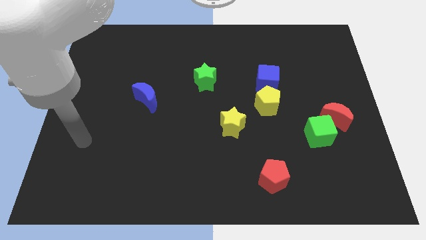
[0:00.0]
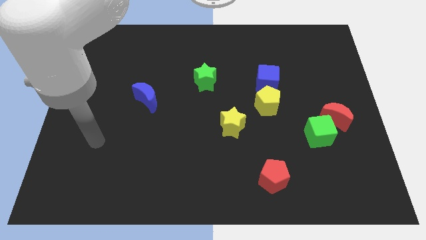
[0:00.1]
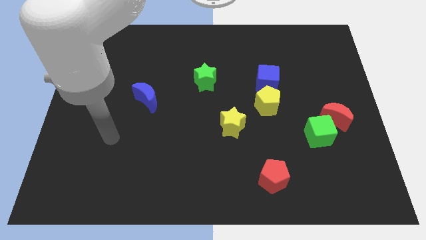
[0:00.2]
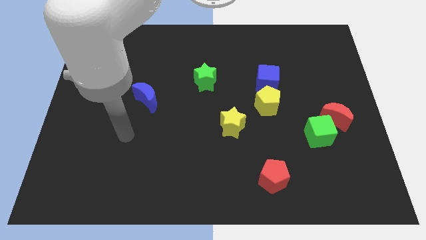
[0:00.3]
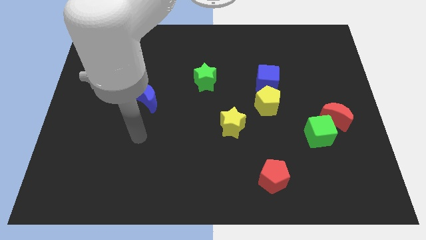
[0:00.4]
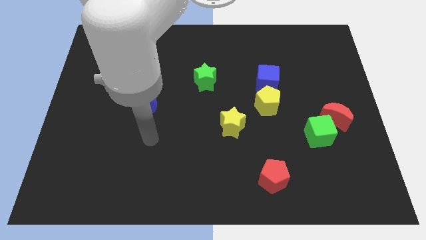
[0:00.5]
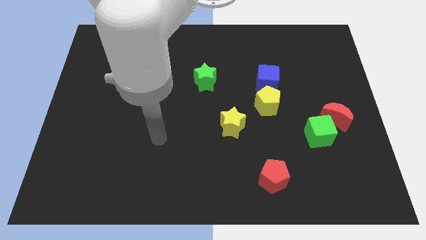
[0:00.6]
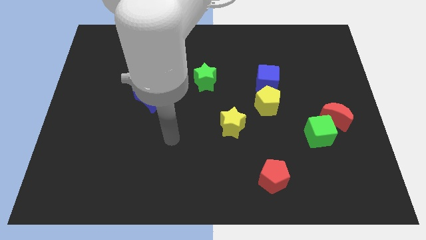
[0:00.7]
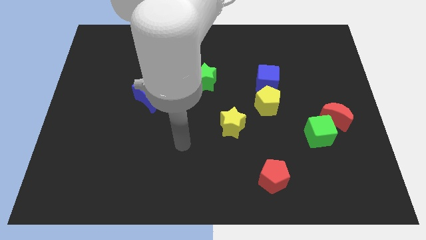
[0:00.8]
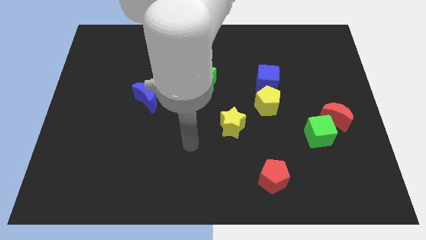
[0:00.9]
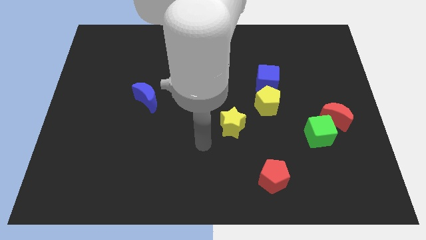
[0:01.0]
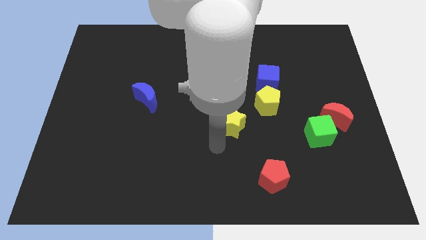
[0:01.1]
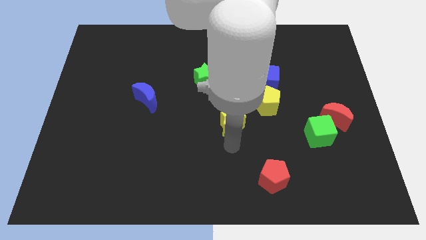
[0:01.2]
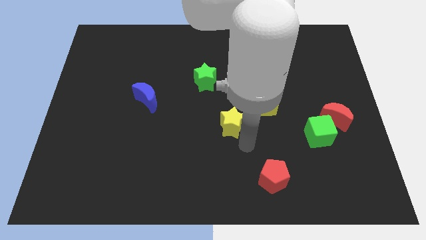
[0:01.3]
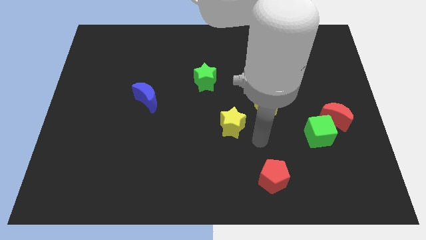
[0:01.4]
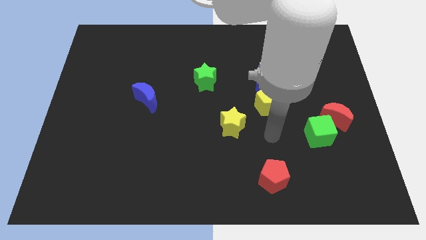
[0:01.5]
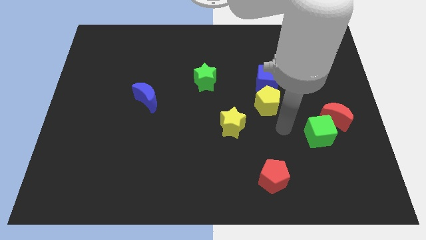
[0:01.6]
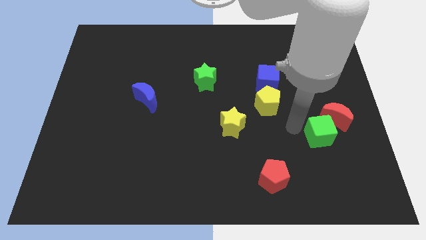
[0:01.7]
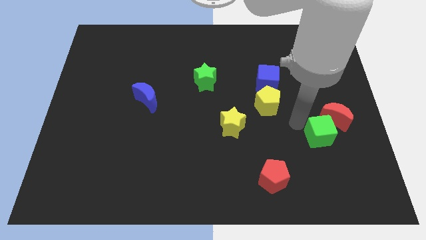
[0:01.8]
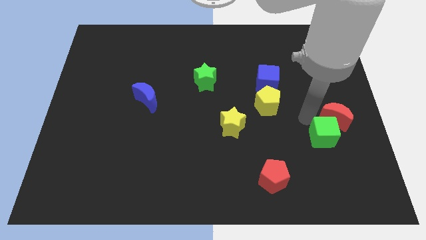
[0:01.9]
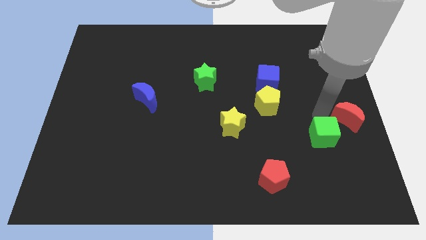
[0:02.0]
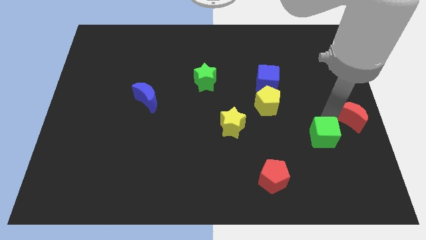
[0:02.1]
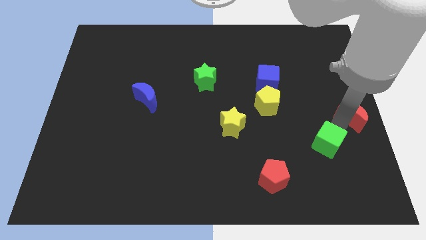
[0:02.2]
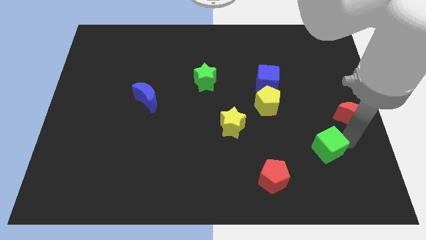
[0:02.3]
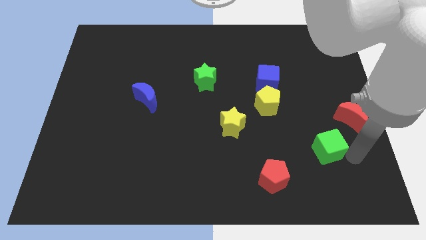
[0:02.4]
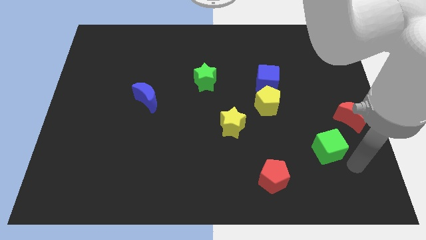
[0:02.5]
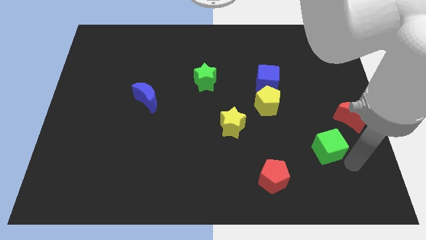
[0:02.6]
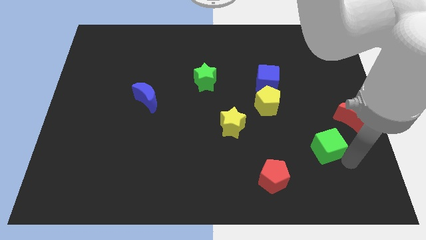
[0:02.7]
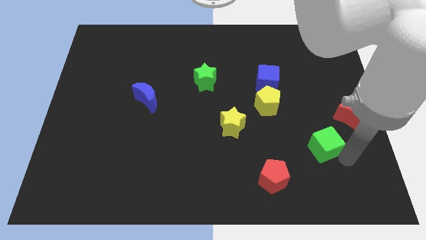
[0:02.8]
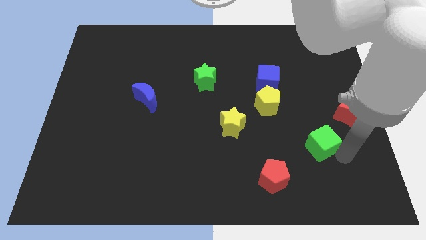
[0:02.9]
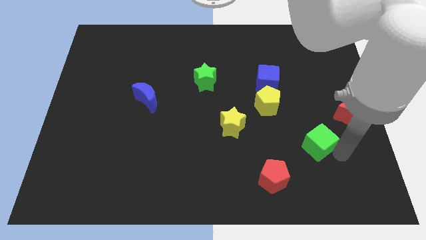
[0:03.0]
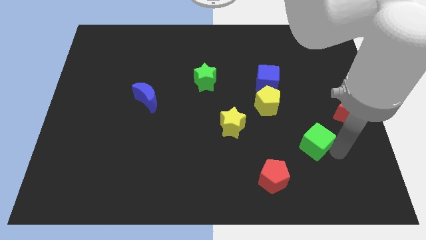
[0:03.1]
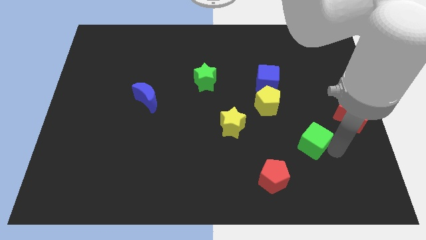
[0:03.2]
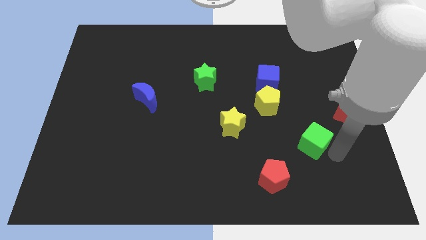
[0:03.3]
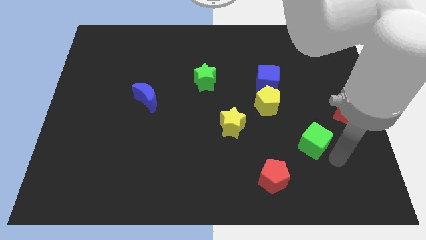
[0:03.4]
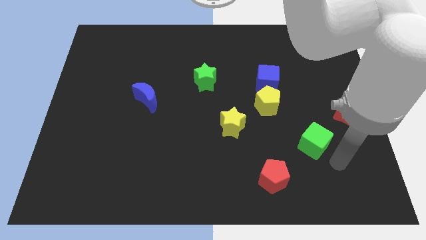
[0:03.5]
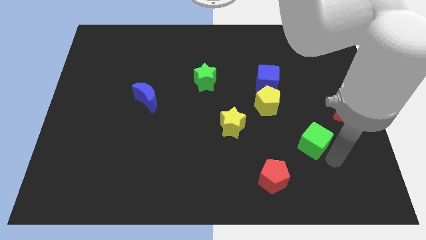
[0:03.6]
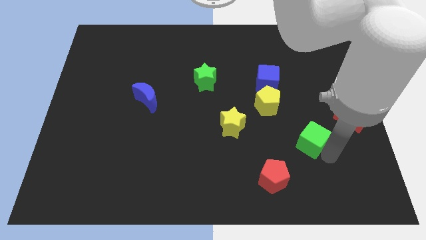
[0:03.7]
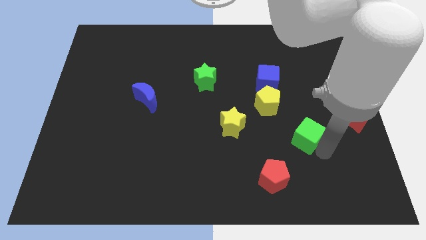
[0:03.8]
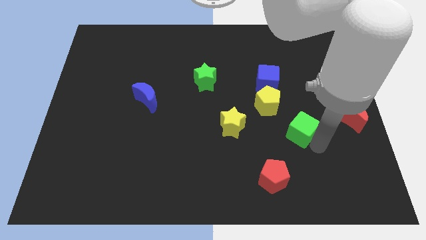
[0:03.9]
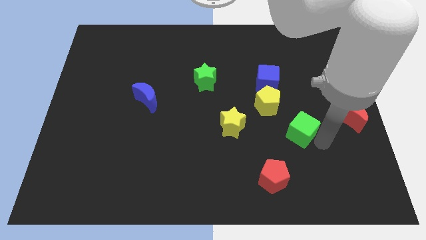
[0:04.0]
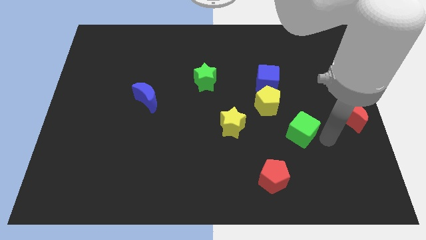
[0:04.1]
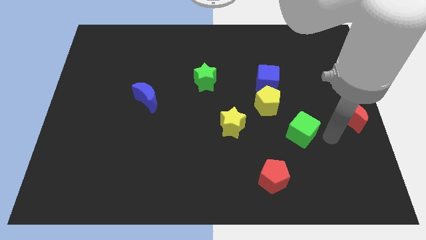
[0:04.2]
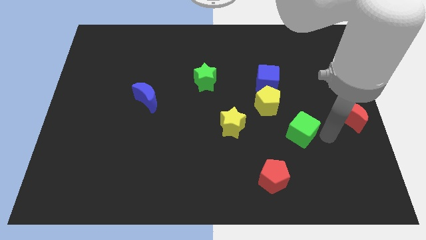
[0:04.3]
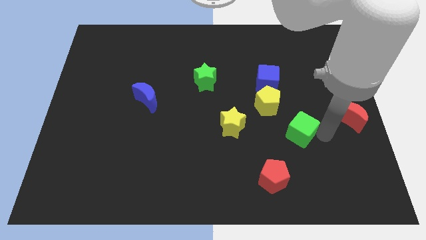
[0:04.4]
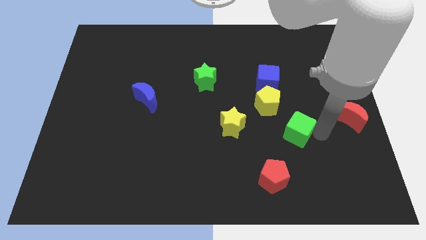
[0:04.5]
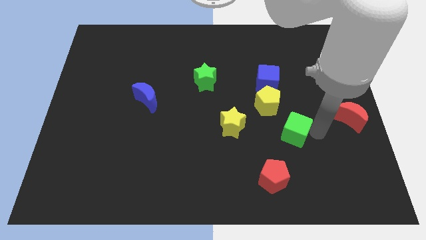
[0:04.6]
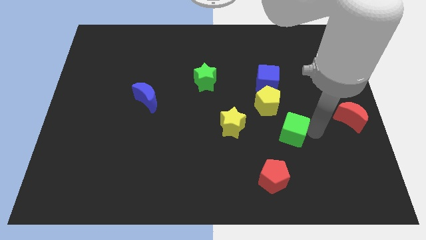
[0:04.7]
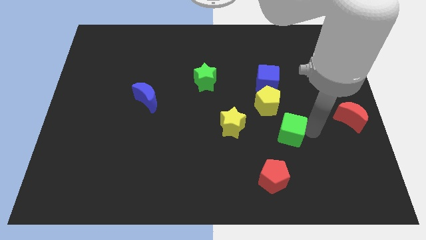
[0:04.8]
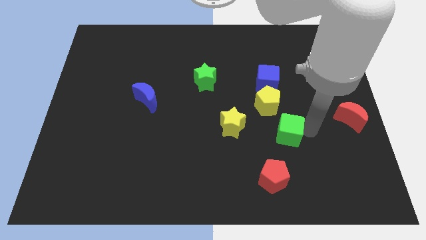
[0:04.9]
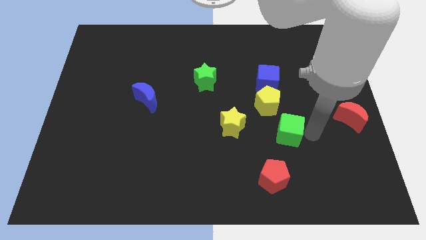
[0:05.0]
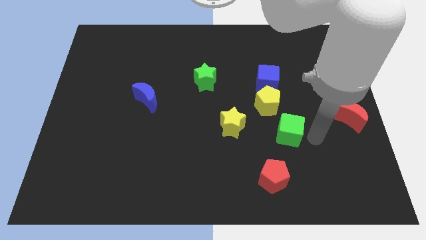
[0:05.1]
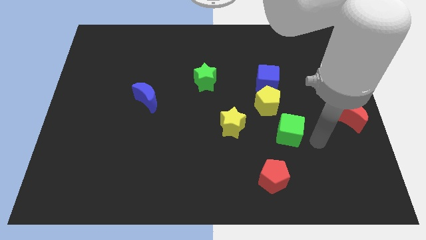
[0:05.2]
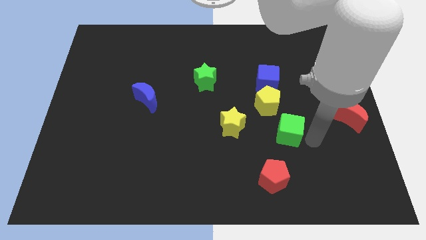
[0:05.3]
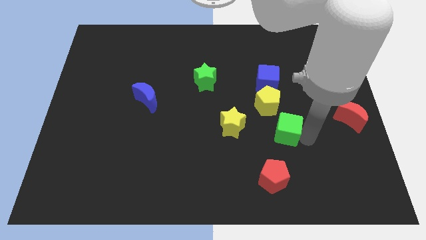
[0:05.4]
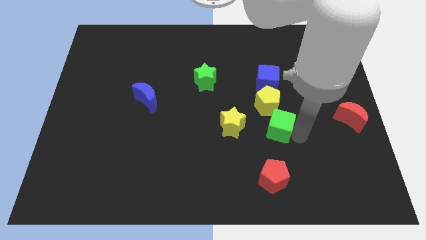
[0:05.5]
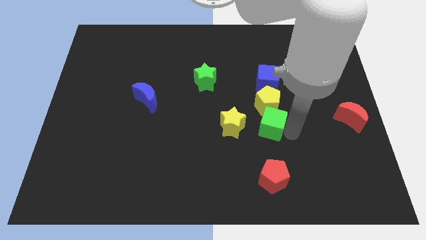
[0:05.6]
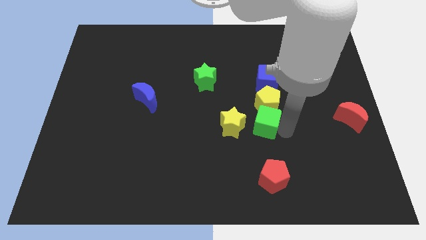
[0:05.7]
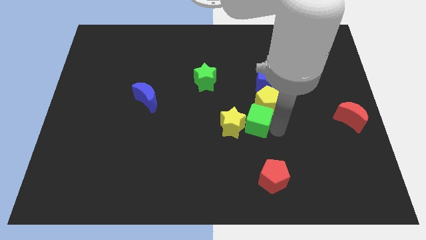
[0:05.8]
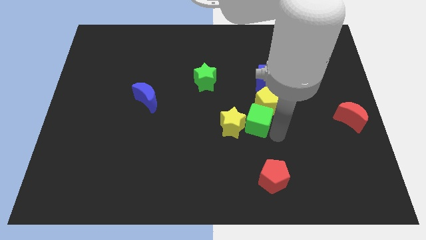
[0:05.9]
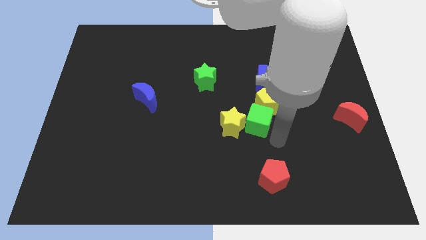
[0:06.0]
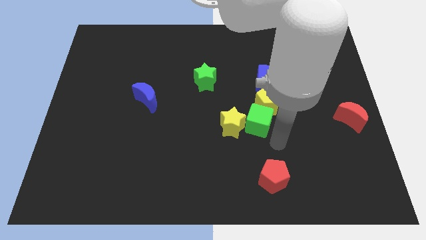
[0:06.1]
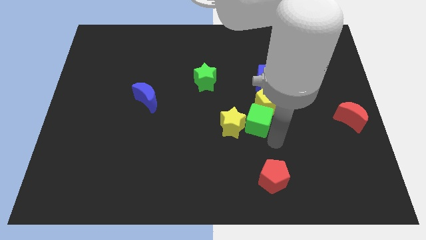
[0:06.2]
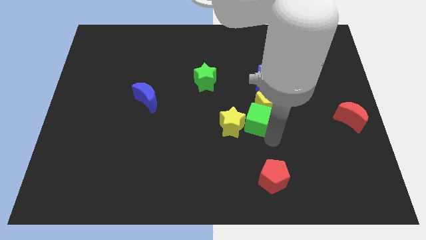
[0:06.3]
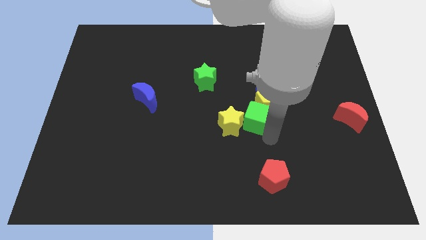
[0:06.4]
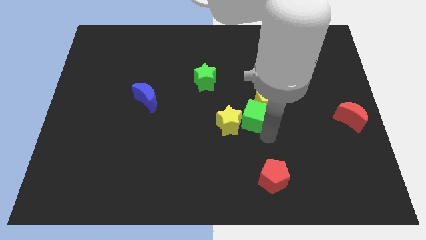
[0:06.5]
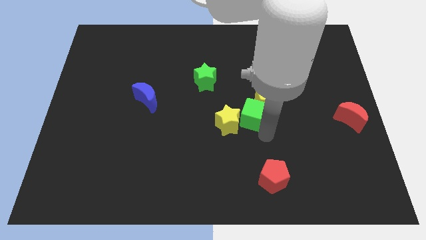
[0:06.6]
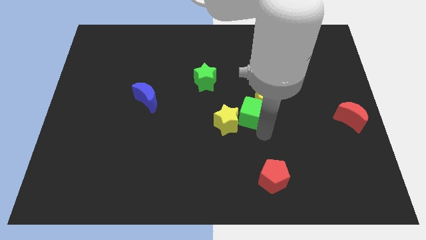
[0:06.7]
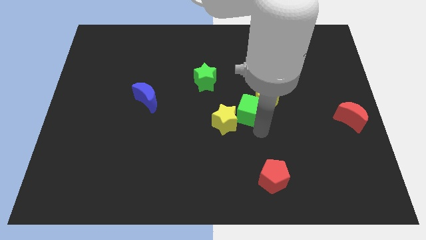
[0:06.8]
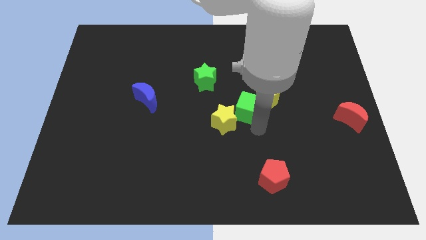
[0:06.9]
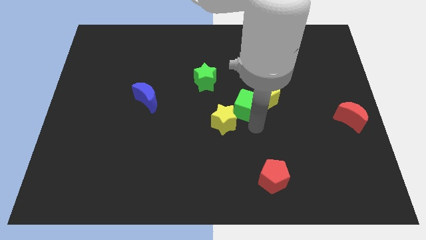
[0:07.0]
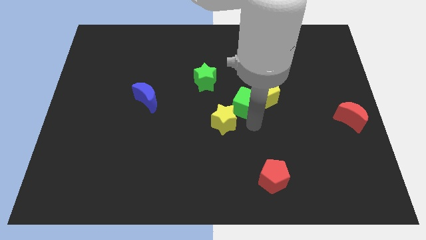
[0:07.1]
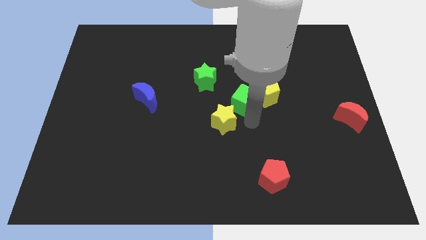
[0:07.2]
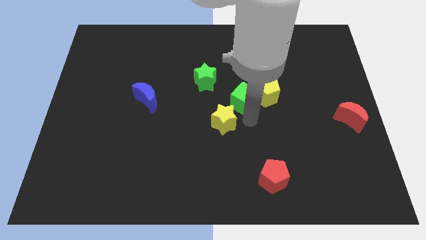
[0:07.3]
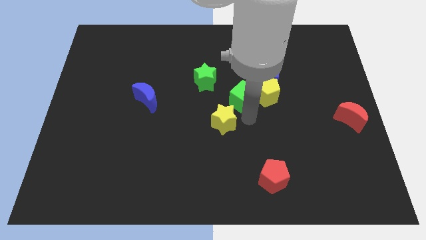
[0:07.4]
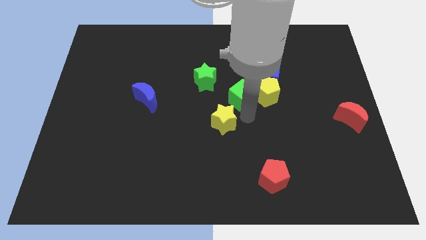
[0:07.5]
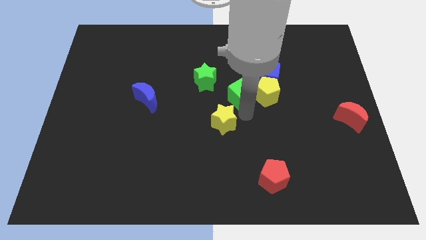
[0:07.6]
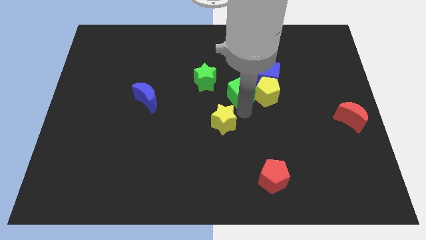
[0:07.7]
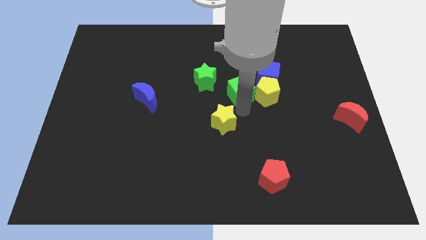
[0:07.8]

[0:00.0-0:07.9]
push the green cube upwards and then to the left
